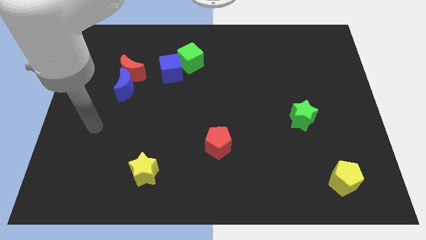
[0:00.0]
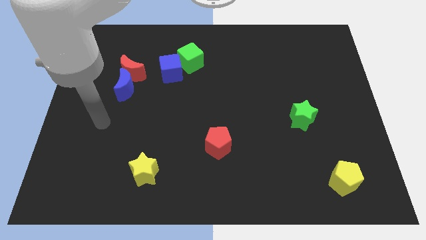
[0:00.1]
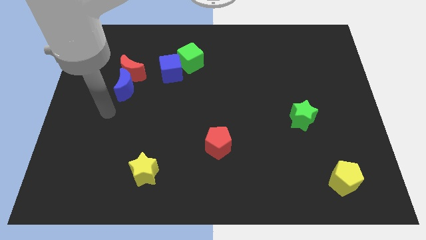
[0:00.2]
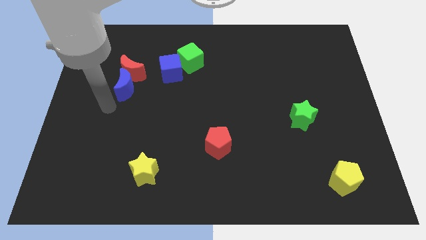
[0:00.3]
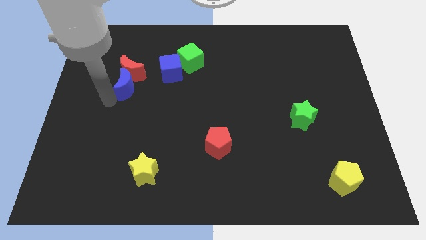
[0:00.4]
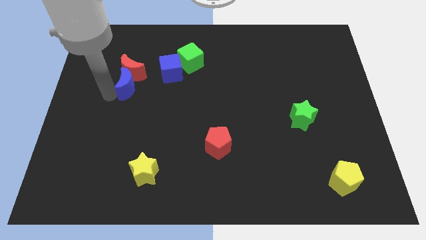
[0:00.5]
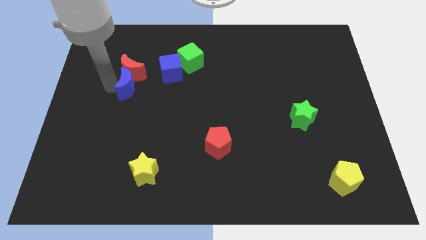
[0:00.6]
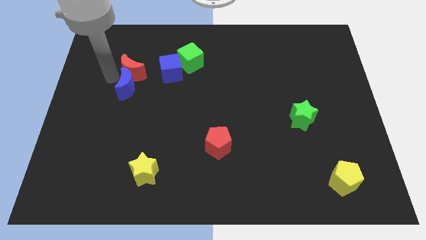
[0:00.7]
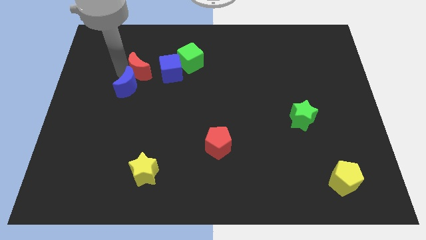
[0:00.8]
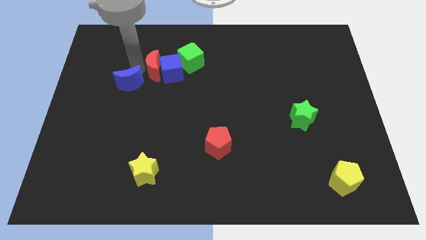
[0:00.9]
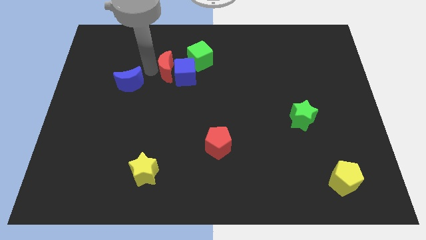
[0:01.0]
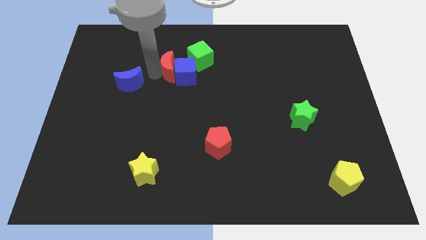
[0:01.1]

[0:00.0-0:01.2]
move the blue moon away from the red moon

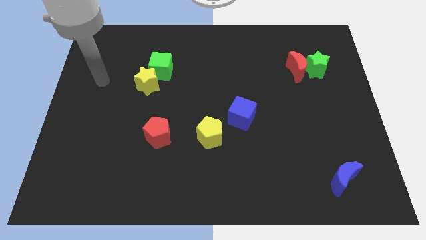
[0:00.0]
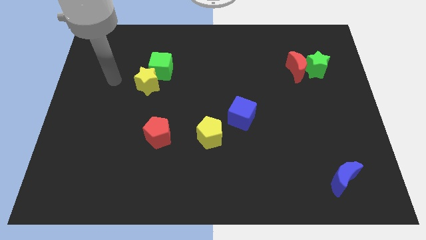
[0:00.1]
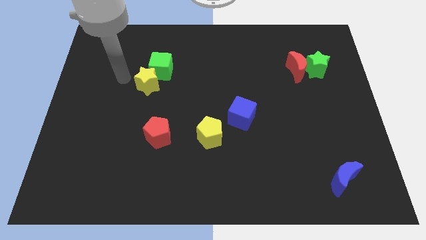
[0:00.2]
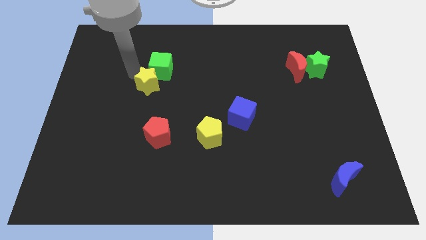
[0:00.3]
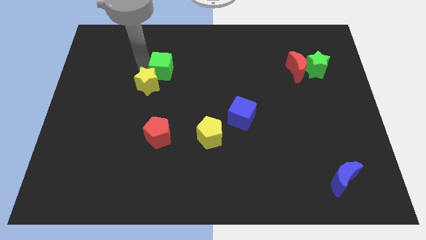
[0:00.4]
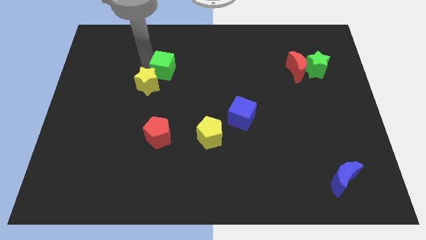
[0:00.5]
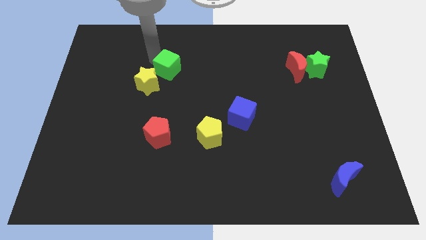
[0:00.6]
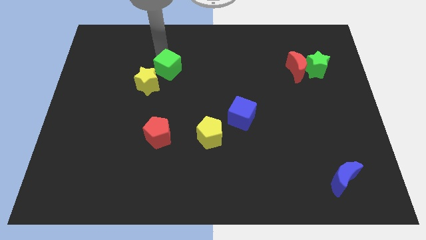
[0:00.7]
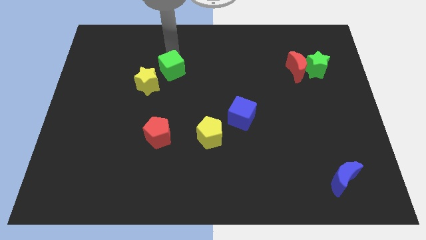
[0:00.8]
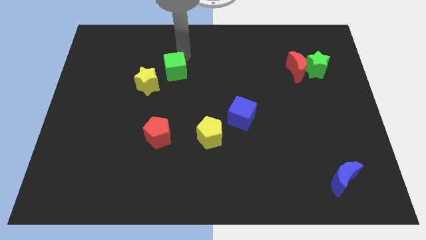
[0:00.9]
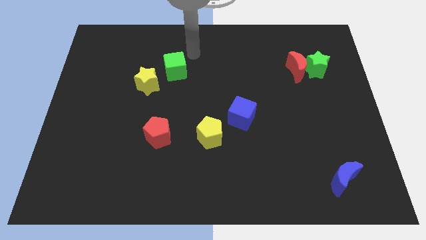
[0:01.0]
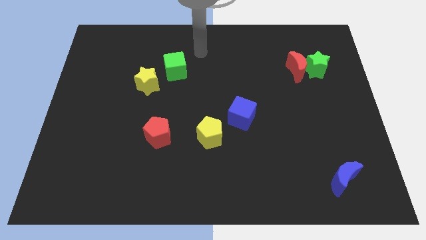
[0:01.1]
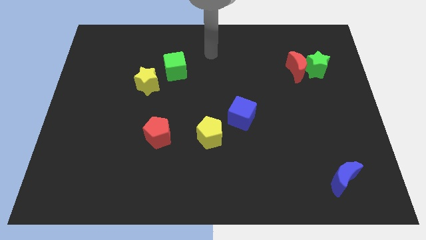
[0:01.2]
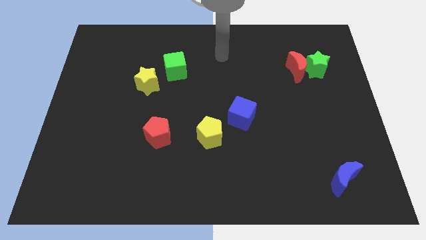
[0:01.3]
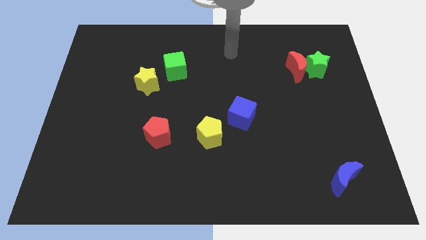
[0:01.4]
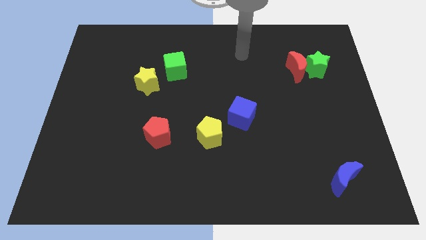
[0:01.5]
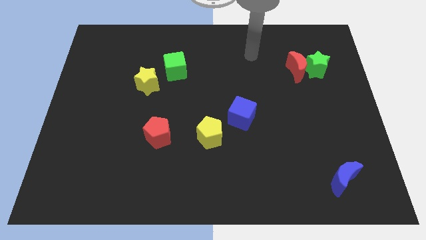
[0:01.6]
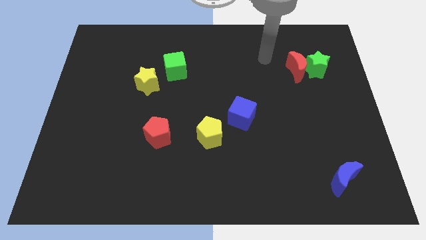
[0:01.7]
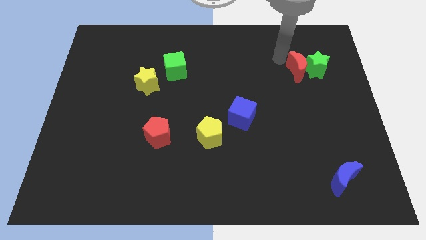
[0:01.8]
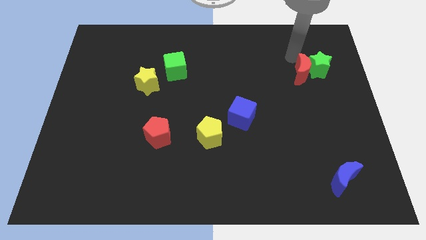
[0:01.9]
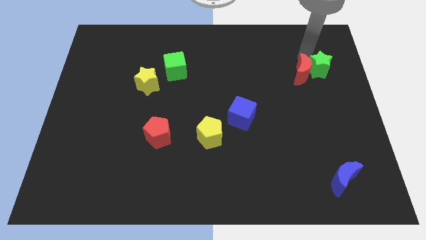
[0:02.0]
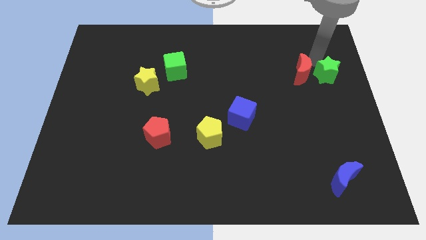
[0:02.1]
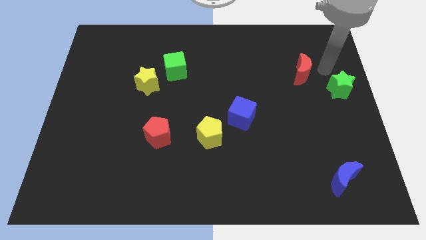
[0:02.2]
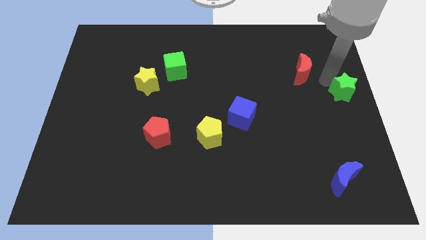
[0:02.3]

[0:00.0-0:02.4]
separate the red moon from the green star

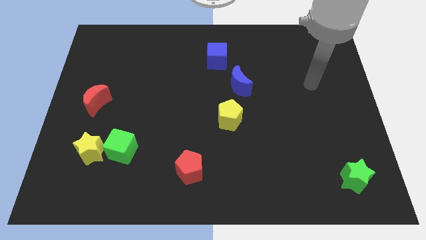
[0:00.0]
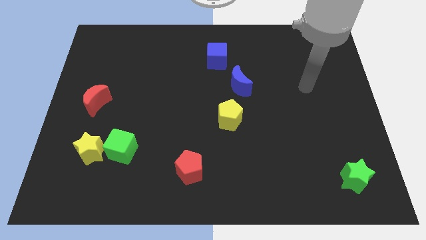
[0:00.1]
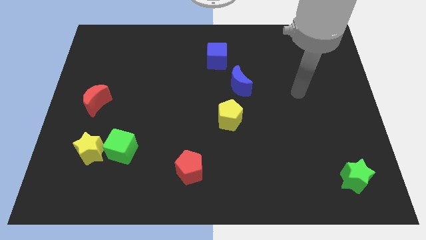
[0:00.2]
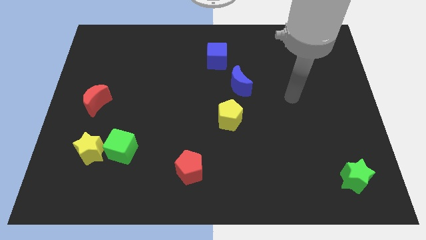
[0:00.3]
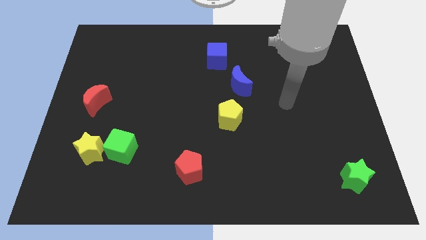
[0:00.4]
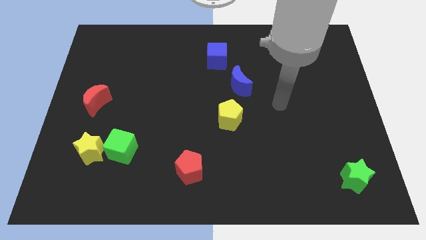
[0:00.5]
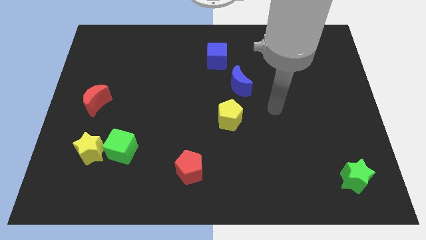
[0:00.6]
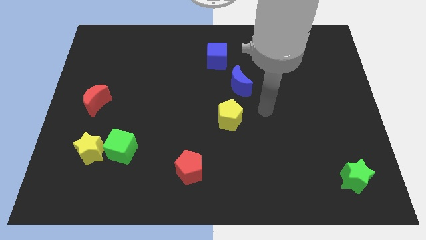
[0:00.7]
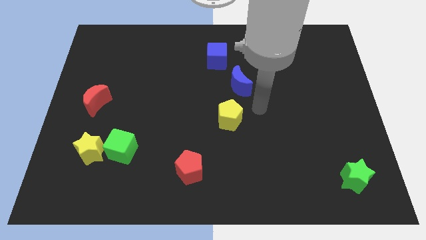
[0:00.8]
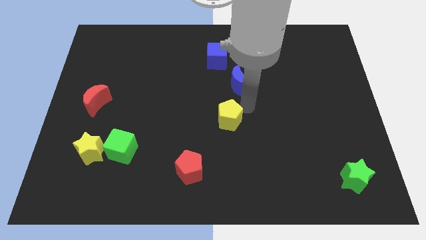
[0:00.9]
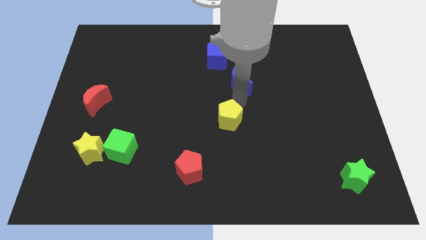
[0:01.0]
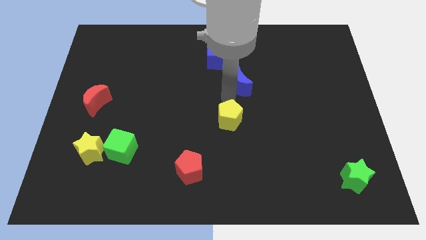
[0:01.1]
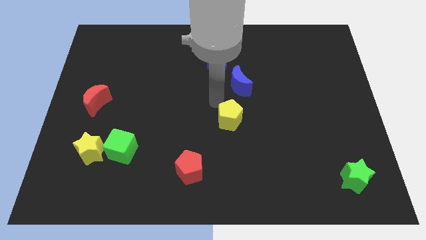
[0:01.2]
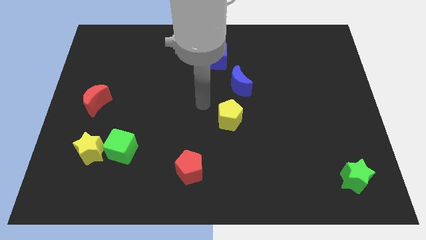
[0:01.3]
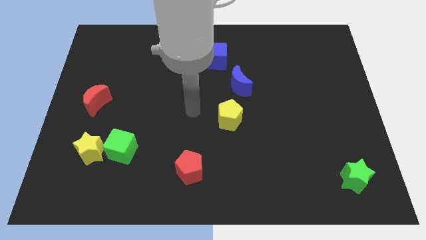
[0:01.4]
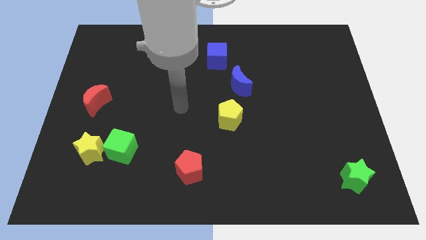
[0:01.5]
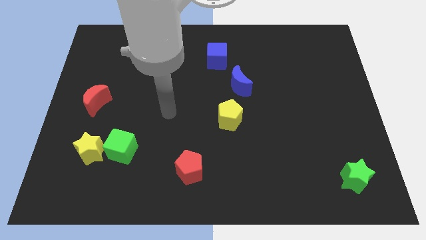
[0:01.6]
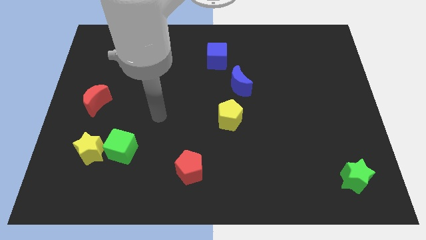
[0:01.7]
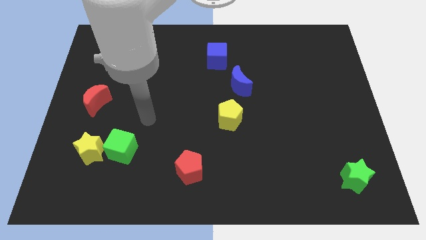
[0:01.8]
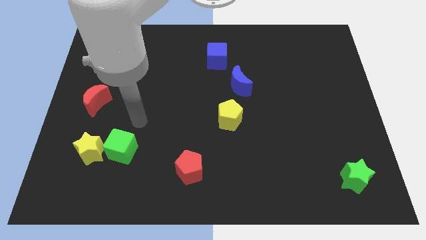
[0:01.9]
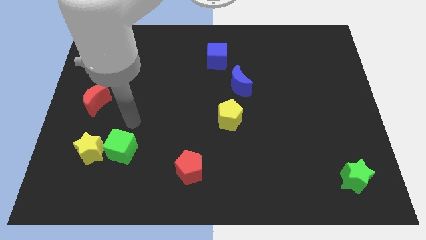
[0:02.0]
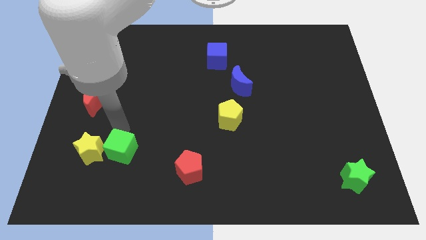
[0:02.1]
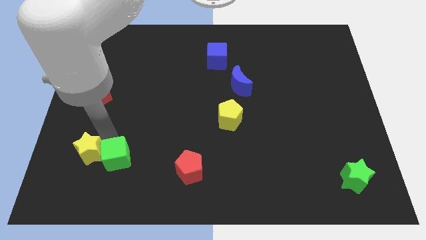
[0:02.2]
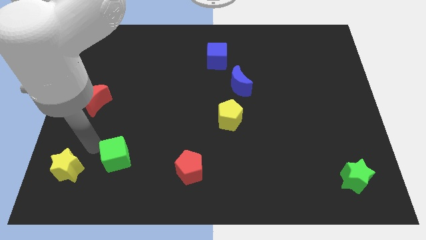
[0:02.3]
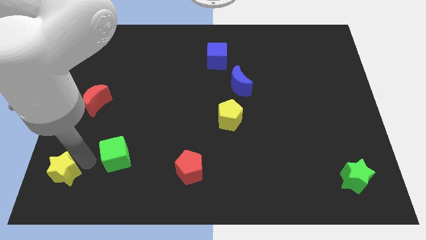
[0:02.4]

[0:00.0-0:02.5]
separate the green cube from the yellow star

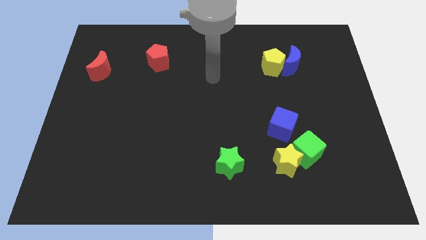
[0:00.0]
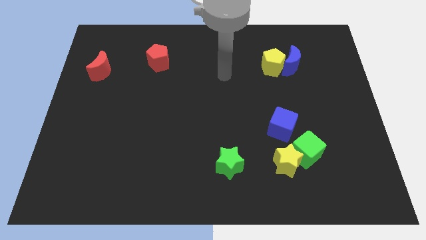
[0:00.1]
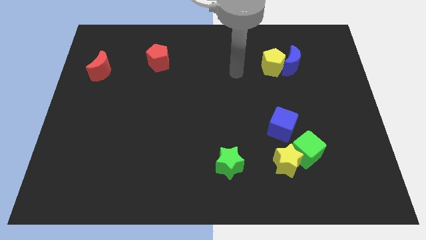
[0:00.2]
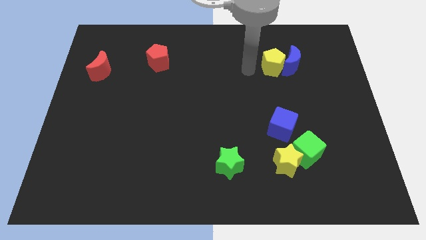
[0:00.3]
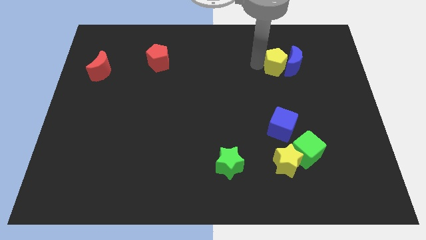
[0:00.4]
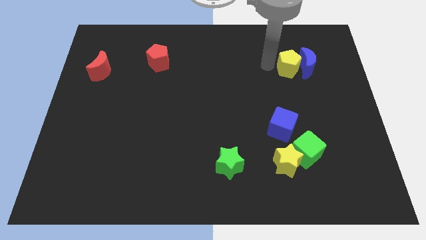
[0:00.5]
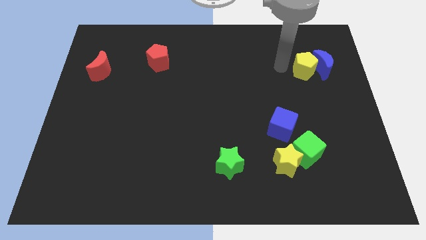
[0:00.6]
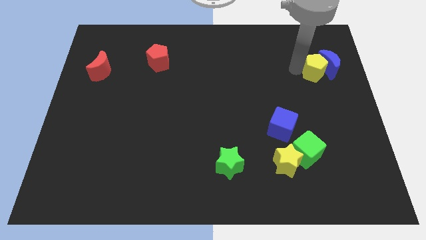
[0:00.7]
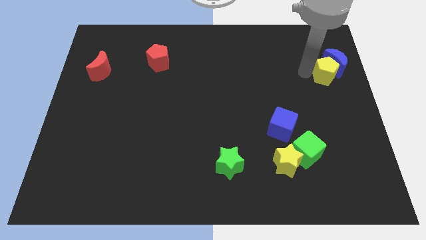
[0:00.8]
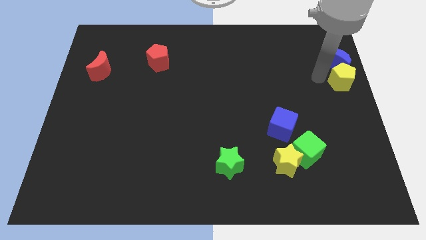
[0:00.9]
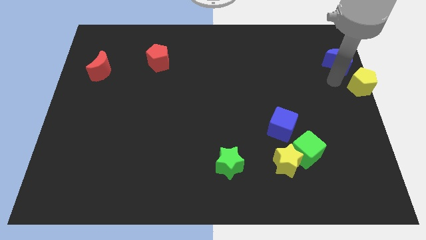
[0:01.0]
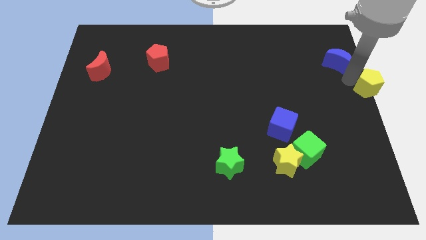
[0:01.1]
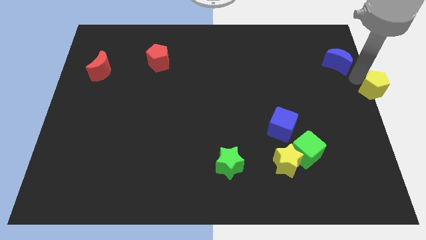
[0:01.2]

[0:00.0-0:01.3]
move the blue moon away from the yellow pentagon

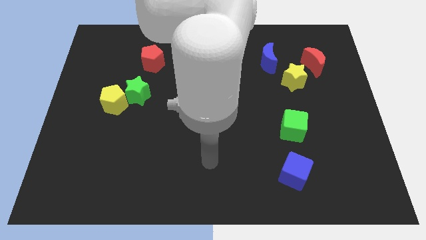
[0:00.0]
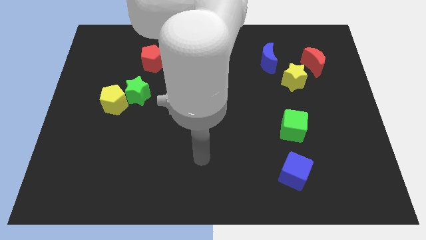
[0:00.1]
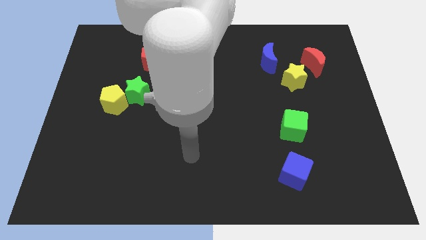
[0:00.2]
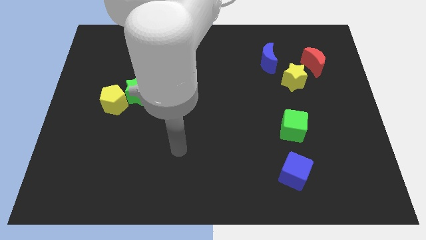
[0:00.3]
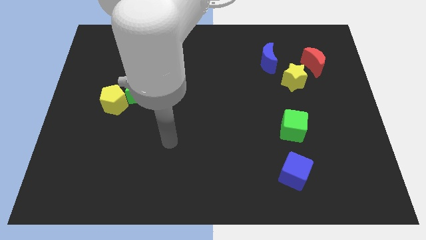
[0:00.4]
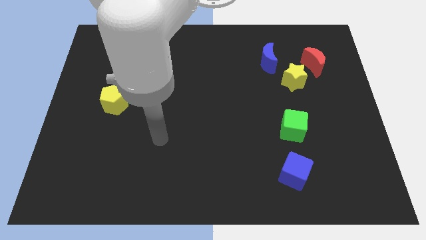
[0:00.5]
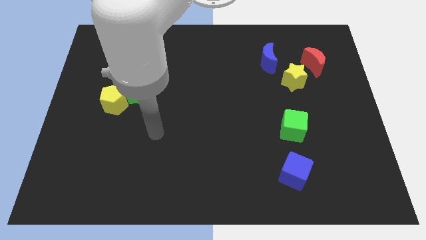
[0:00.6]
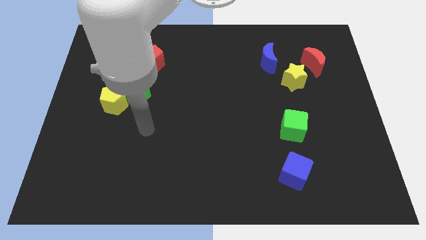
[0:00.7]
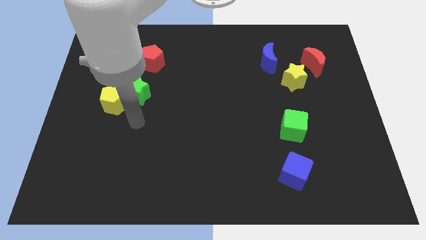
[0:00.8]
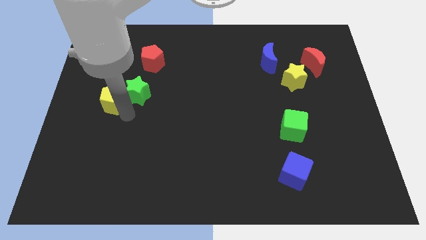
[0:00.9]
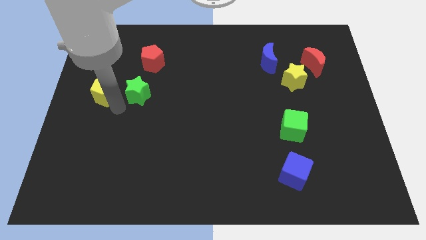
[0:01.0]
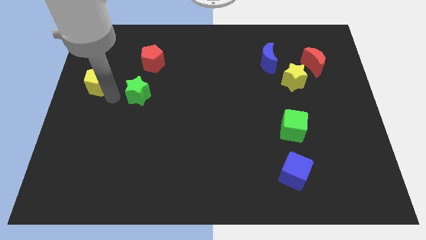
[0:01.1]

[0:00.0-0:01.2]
pull the green star apart from the yellow pentagon

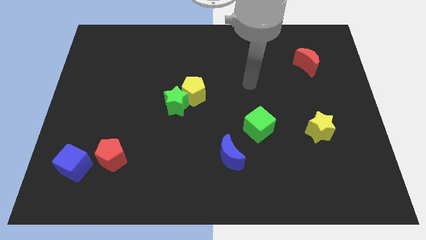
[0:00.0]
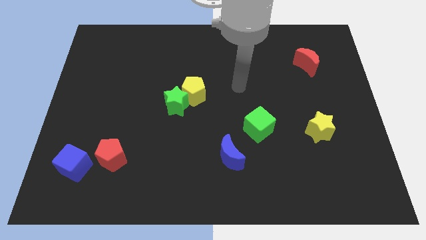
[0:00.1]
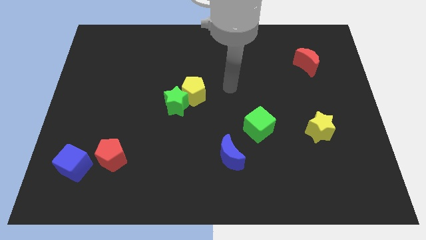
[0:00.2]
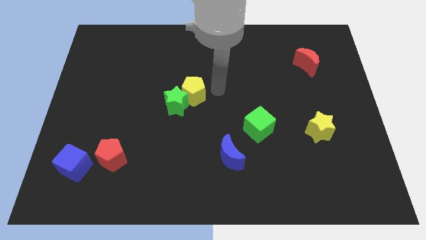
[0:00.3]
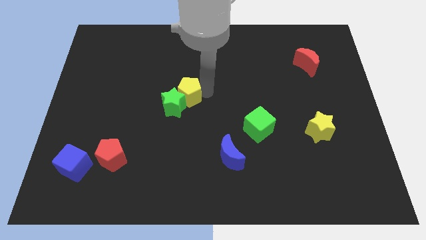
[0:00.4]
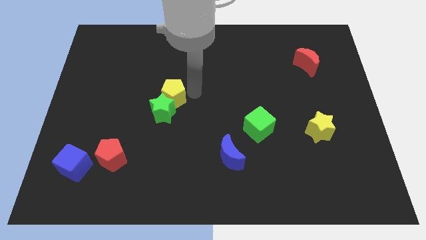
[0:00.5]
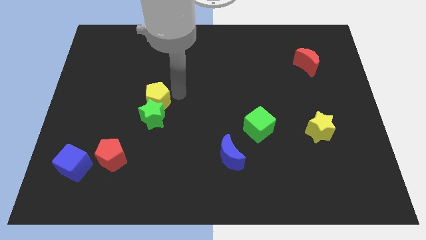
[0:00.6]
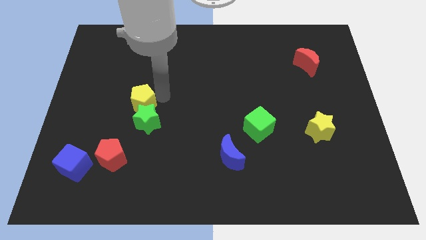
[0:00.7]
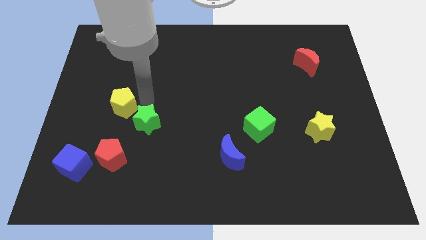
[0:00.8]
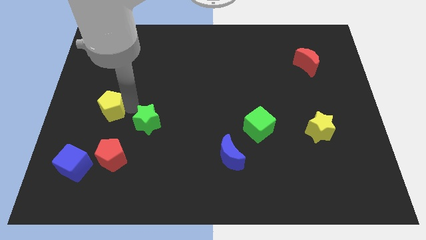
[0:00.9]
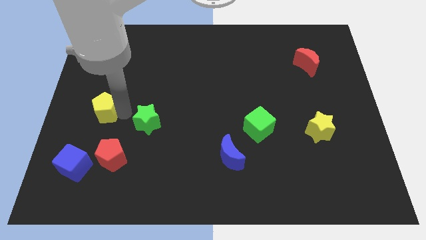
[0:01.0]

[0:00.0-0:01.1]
separate the green star from the yellow pentagon
